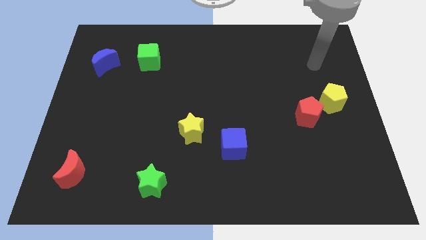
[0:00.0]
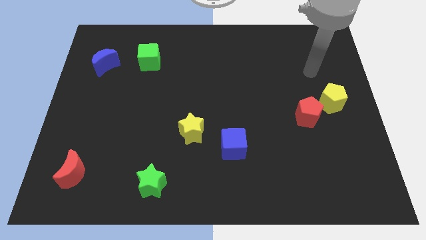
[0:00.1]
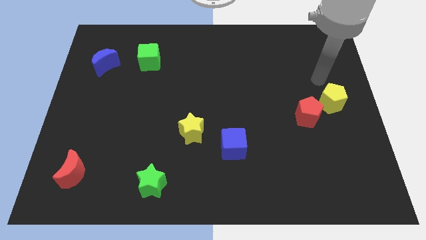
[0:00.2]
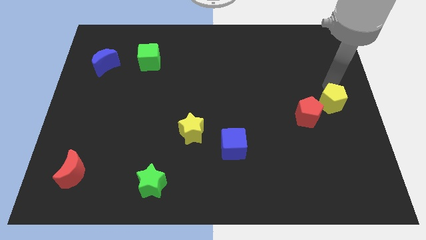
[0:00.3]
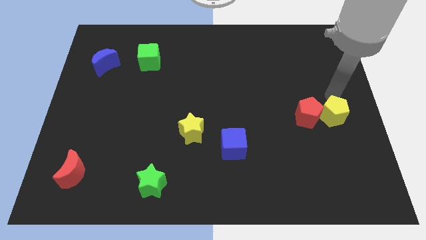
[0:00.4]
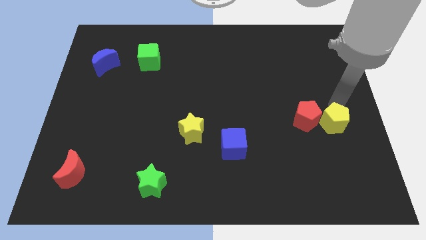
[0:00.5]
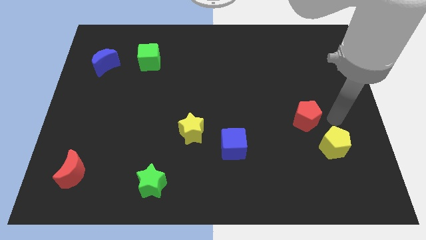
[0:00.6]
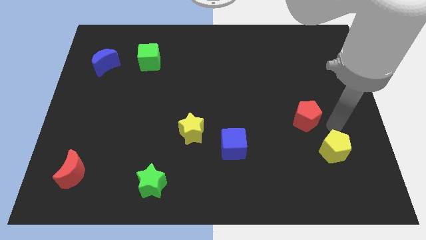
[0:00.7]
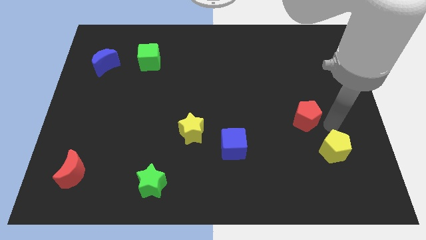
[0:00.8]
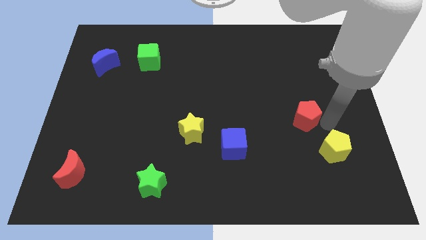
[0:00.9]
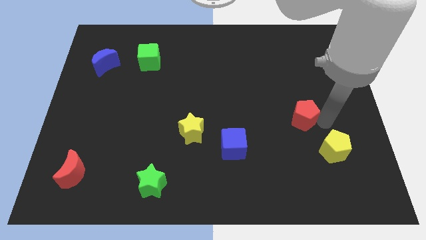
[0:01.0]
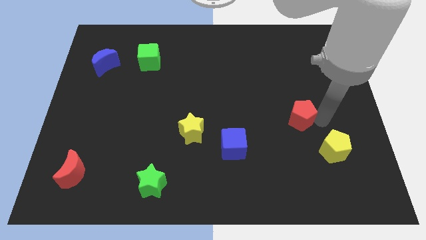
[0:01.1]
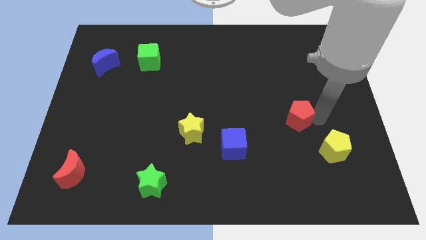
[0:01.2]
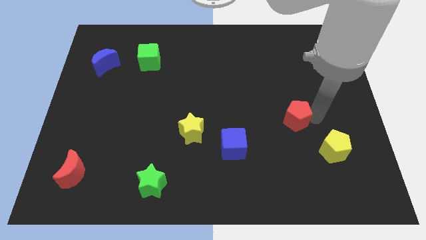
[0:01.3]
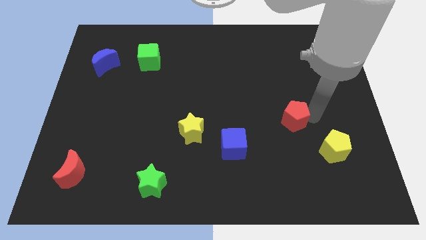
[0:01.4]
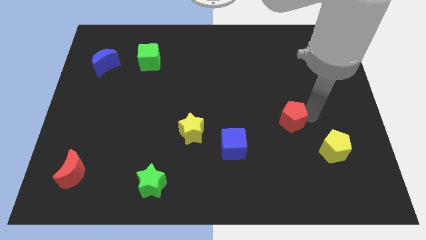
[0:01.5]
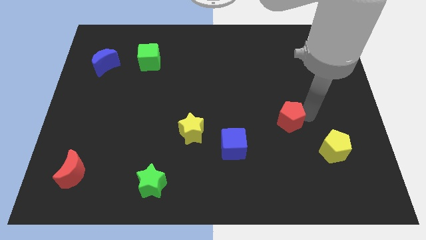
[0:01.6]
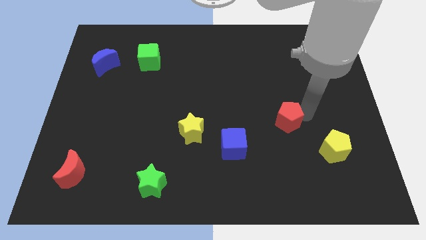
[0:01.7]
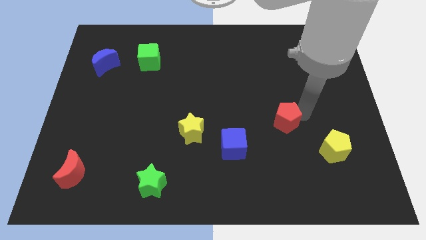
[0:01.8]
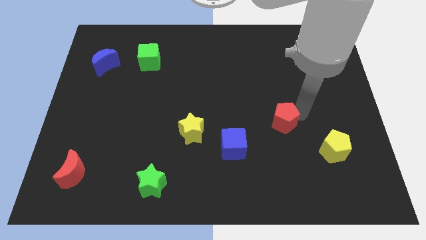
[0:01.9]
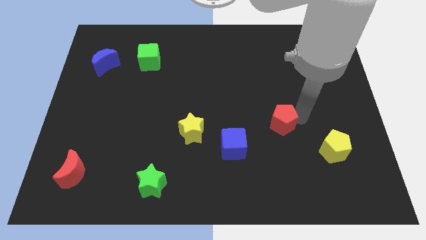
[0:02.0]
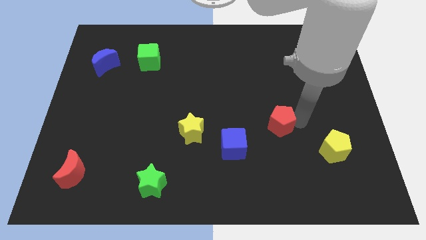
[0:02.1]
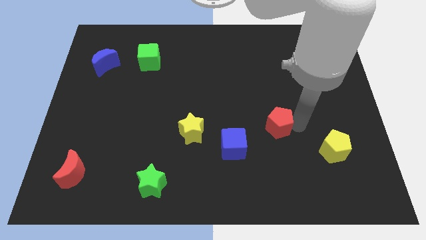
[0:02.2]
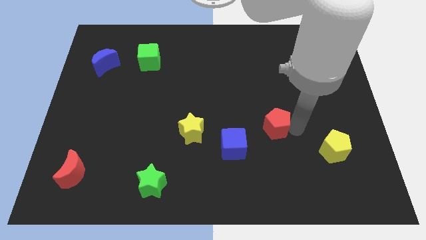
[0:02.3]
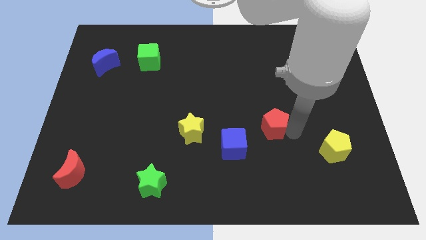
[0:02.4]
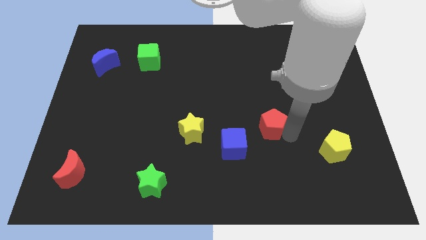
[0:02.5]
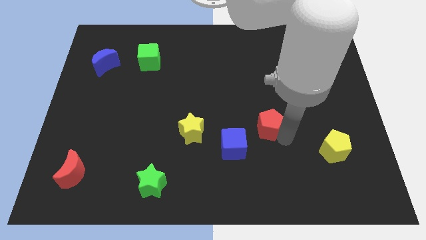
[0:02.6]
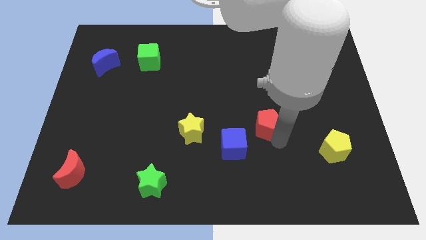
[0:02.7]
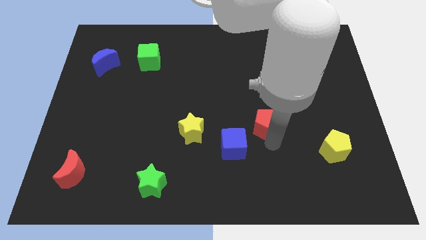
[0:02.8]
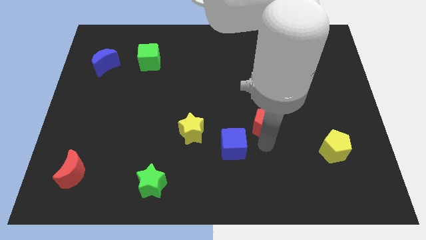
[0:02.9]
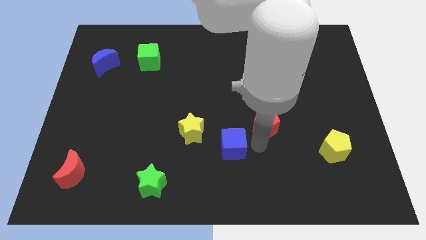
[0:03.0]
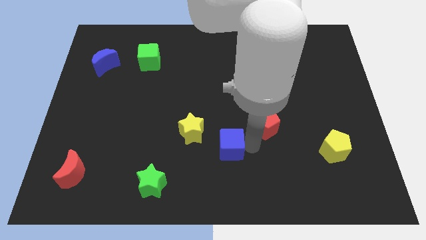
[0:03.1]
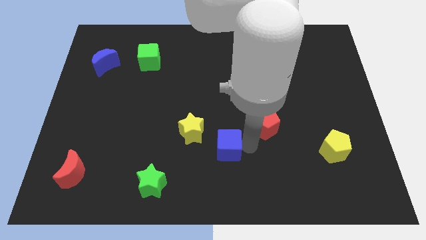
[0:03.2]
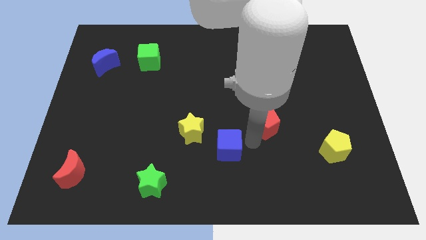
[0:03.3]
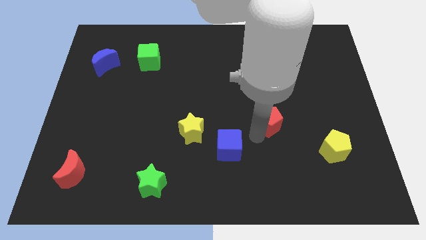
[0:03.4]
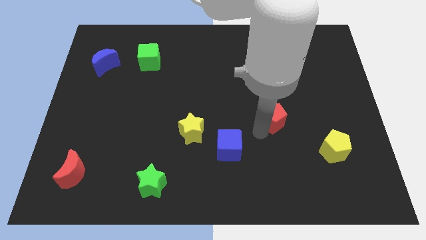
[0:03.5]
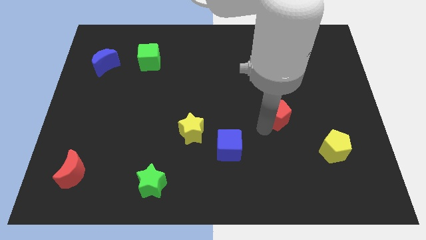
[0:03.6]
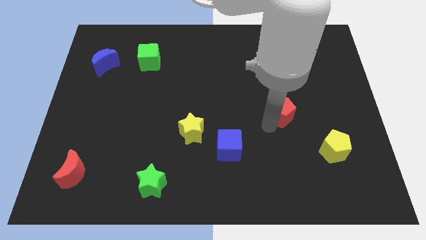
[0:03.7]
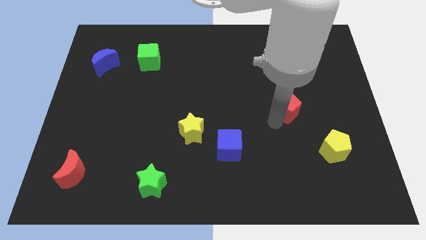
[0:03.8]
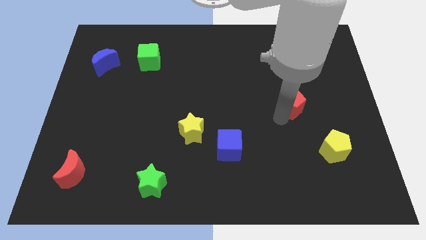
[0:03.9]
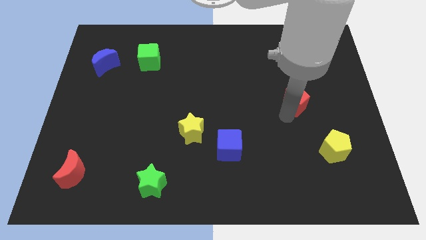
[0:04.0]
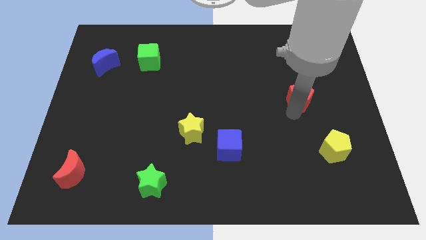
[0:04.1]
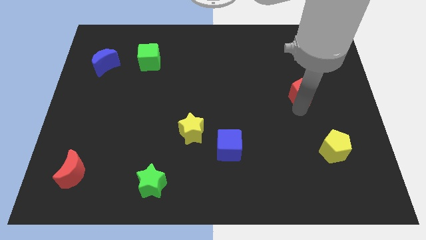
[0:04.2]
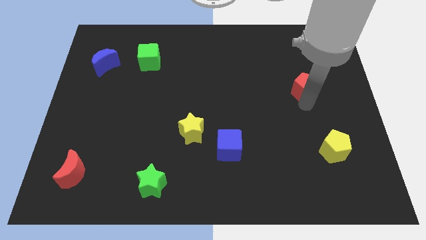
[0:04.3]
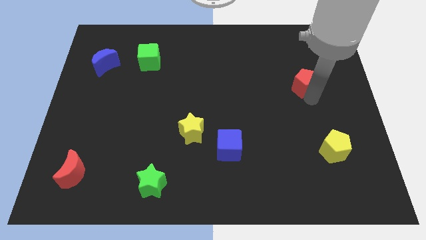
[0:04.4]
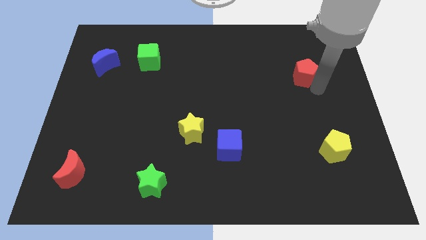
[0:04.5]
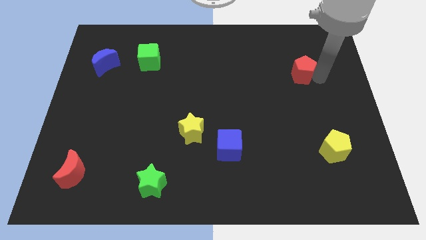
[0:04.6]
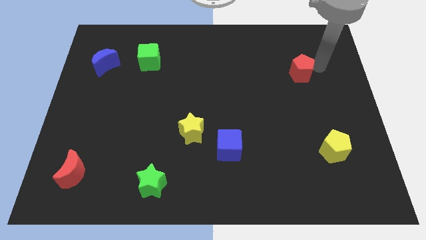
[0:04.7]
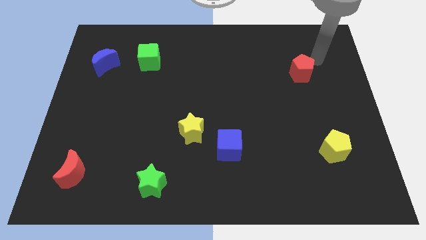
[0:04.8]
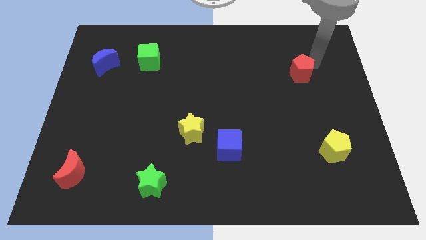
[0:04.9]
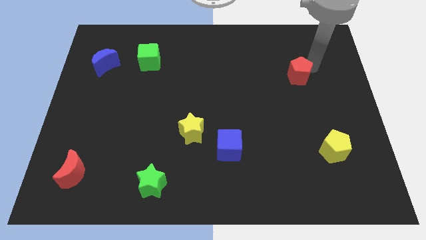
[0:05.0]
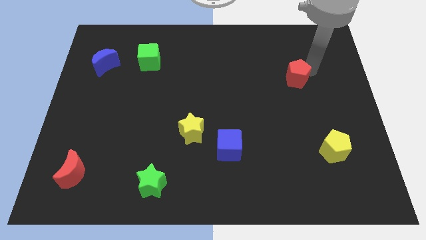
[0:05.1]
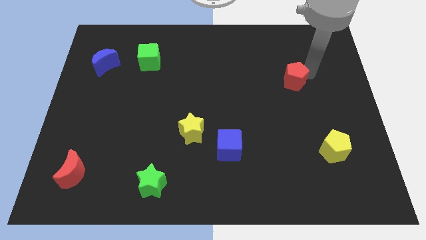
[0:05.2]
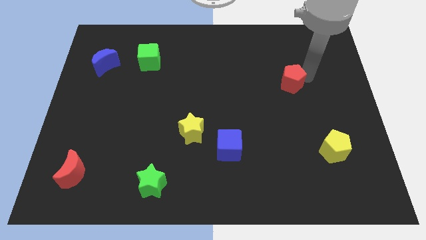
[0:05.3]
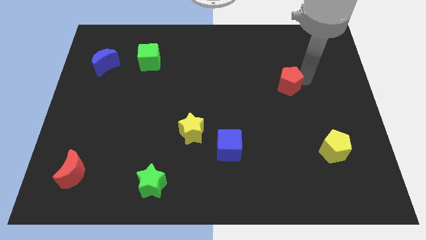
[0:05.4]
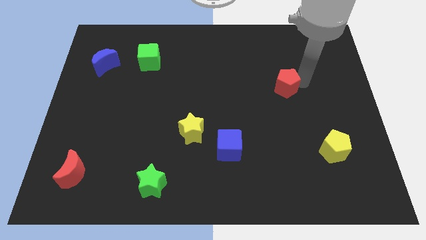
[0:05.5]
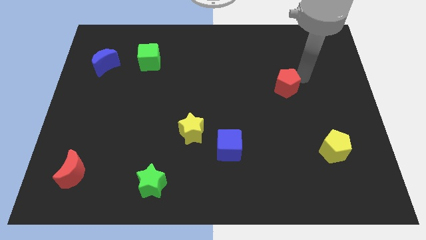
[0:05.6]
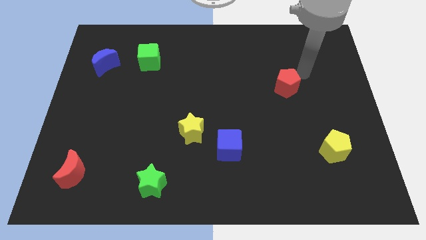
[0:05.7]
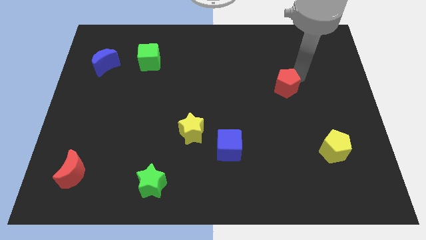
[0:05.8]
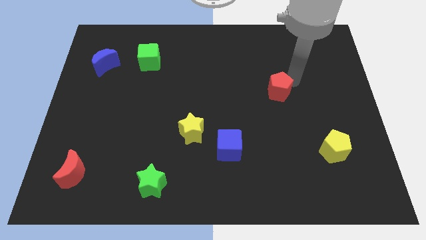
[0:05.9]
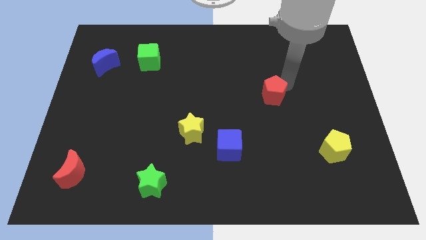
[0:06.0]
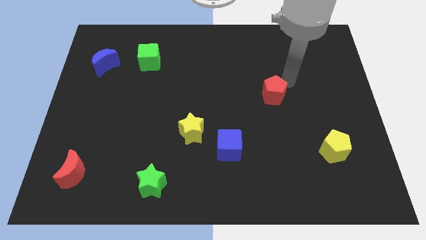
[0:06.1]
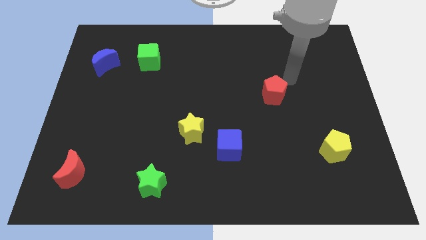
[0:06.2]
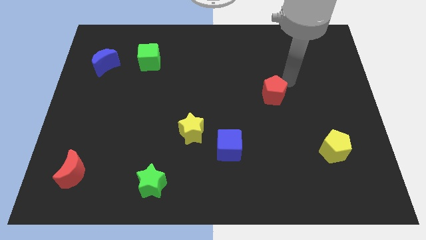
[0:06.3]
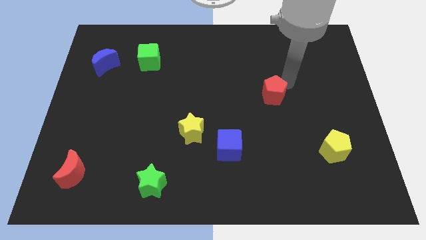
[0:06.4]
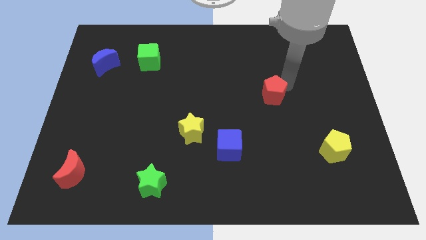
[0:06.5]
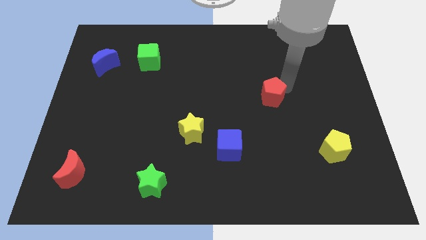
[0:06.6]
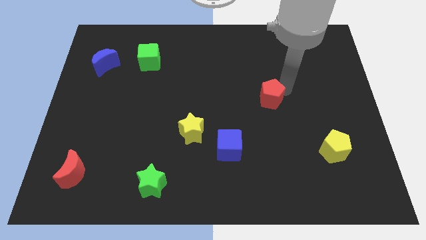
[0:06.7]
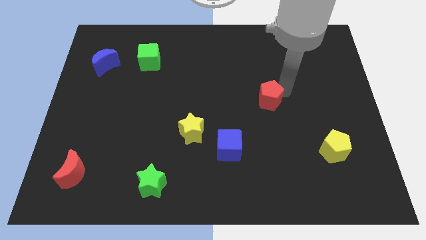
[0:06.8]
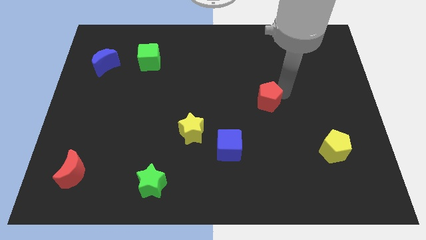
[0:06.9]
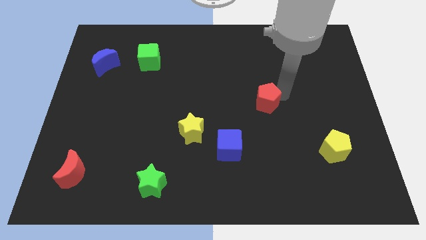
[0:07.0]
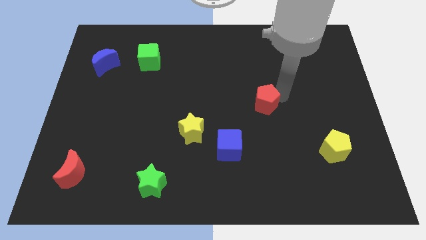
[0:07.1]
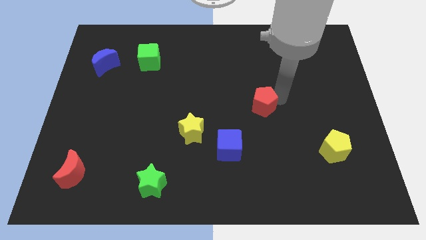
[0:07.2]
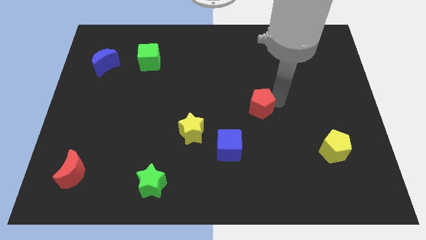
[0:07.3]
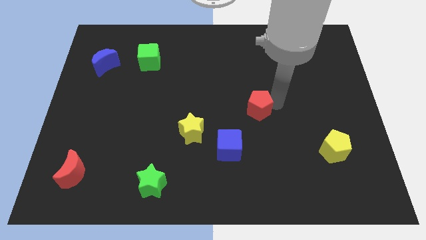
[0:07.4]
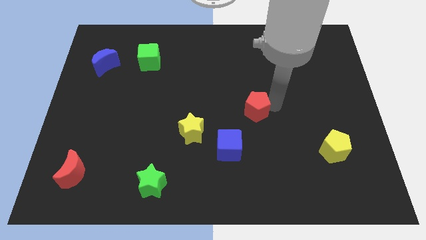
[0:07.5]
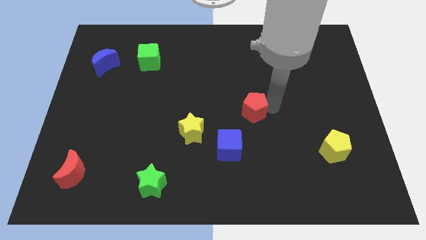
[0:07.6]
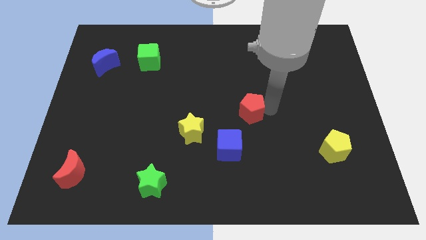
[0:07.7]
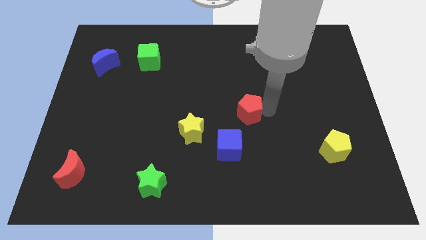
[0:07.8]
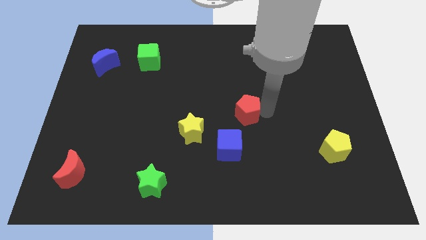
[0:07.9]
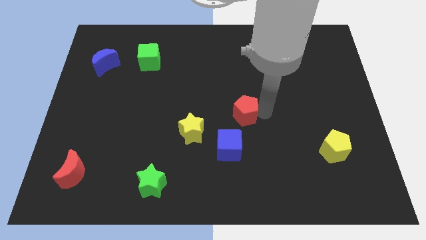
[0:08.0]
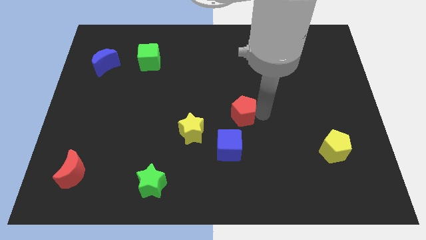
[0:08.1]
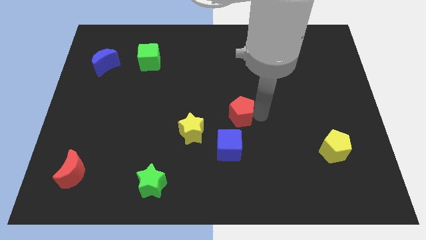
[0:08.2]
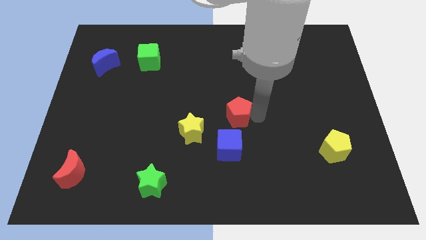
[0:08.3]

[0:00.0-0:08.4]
push the red pentagon to the top right of the yellow star
